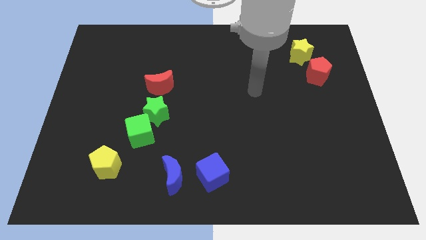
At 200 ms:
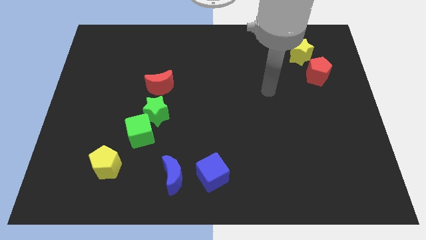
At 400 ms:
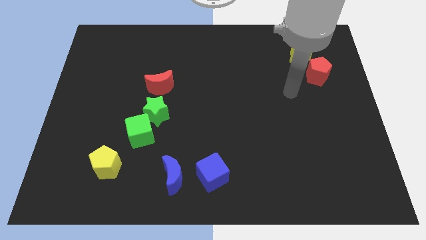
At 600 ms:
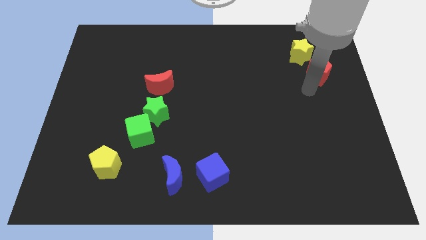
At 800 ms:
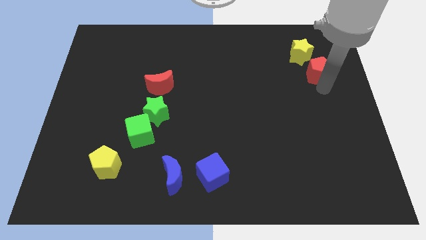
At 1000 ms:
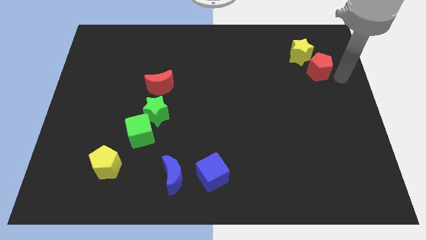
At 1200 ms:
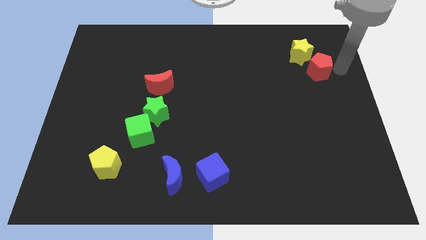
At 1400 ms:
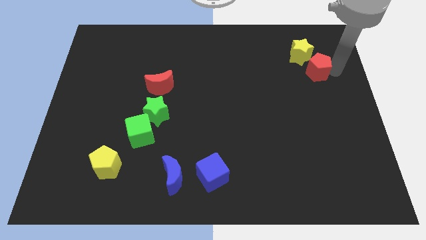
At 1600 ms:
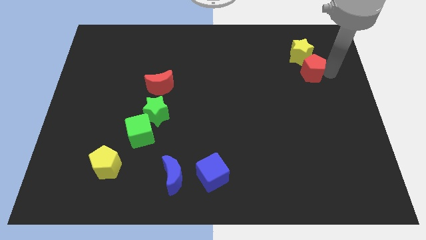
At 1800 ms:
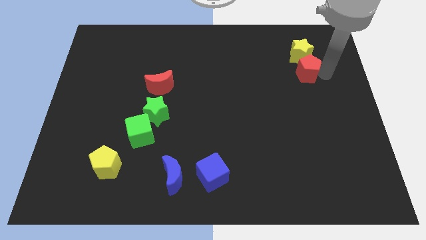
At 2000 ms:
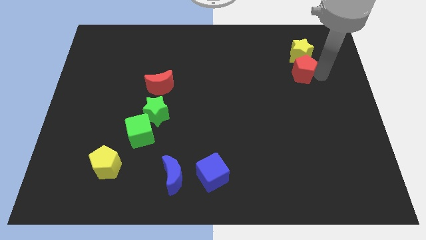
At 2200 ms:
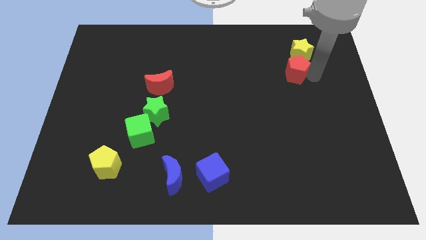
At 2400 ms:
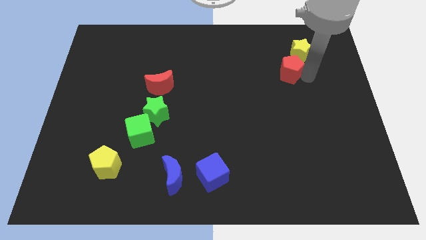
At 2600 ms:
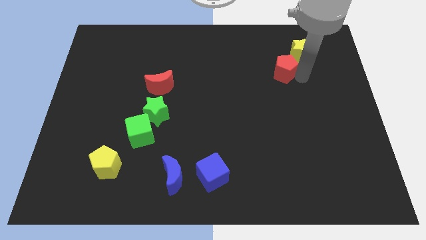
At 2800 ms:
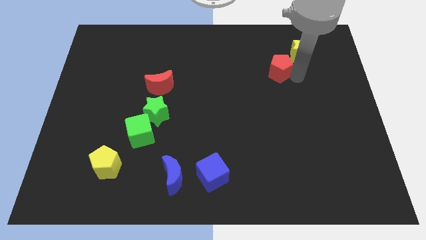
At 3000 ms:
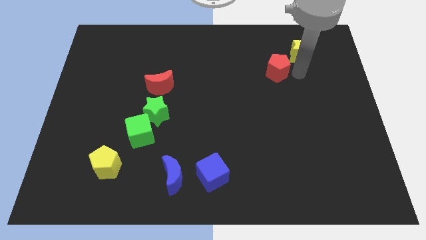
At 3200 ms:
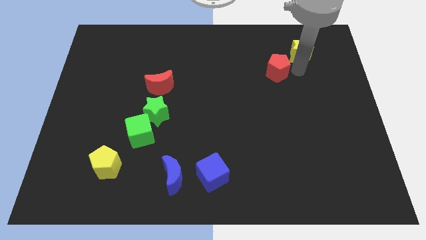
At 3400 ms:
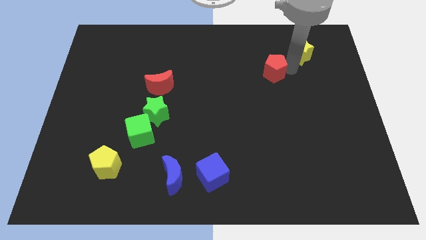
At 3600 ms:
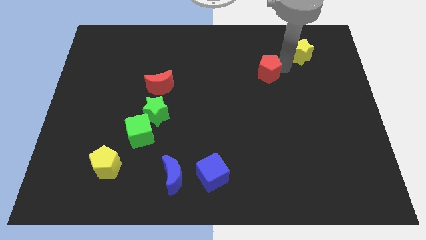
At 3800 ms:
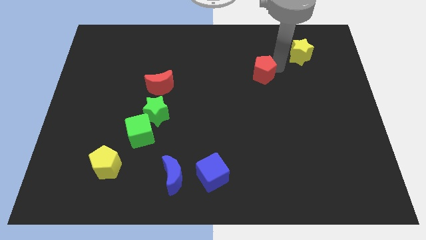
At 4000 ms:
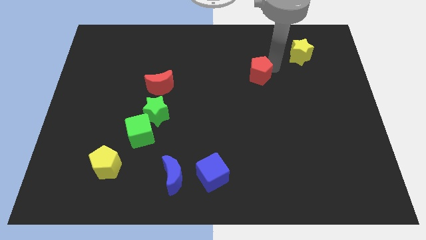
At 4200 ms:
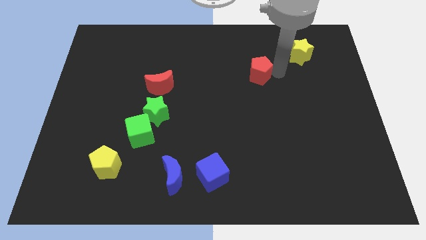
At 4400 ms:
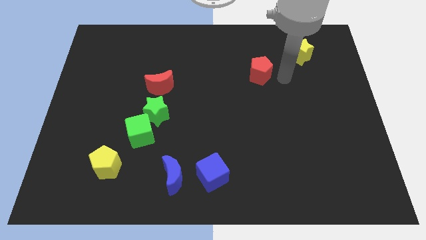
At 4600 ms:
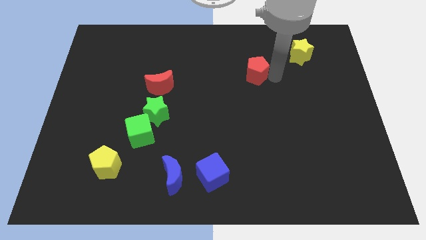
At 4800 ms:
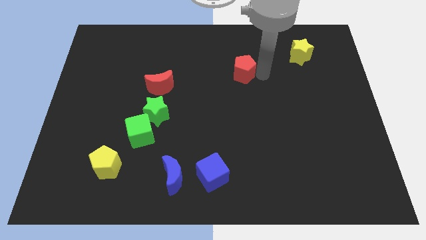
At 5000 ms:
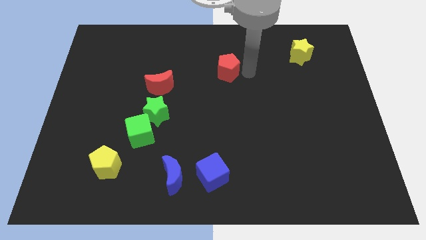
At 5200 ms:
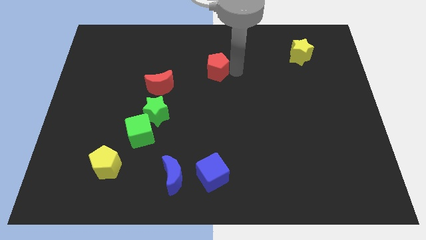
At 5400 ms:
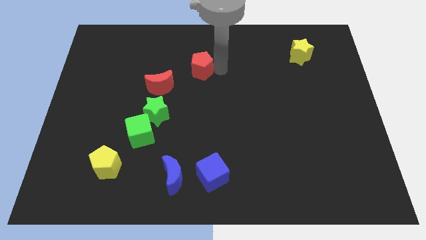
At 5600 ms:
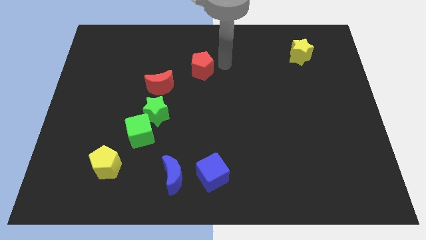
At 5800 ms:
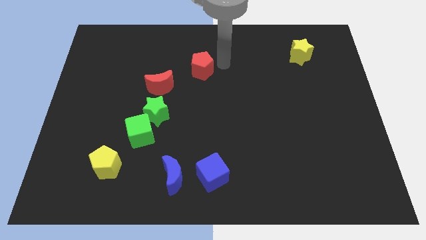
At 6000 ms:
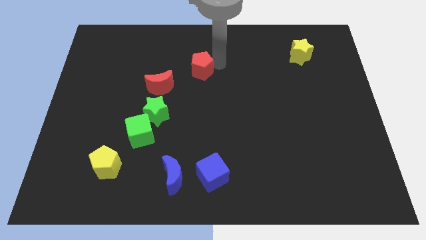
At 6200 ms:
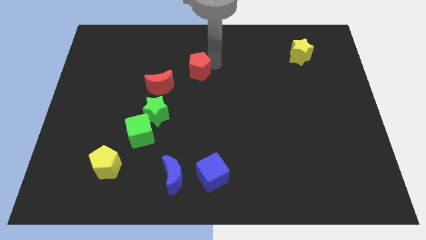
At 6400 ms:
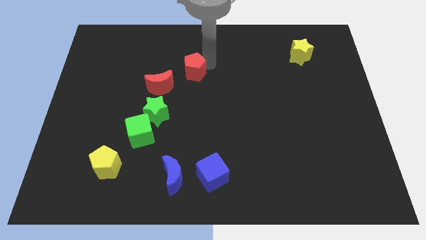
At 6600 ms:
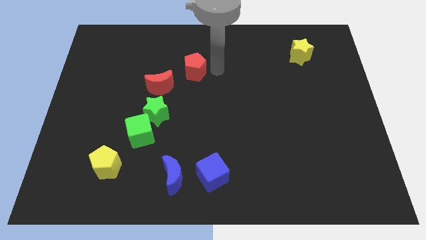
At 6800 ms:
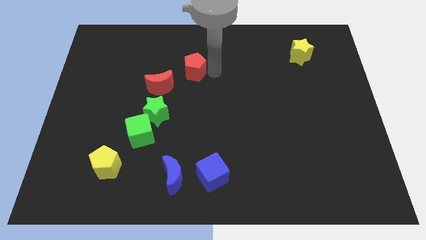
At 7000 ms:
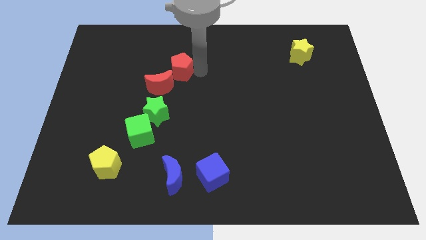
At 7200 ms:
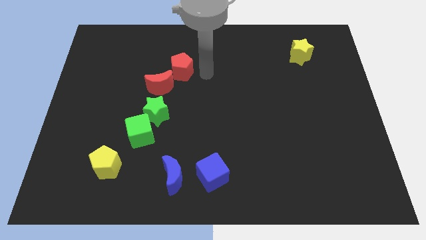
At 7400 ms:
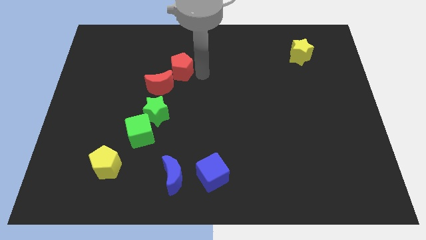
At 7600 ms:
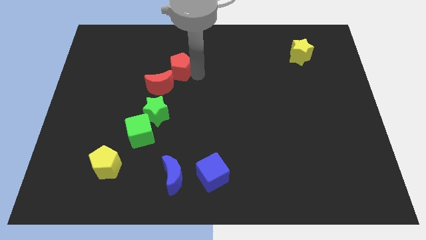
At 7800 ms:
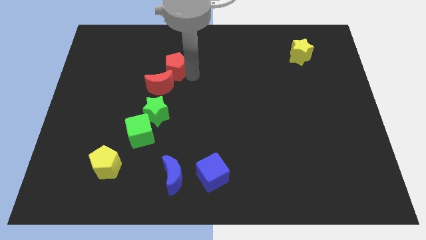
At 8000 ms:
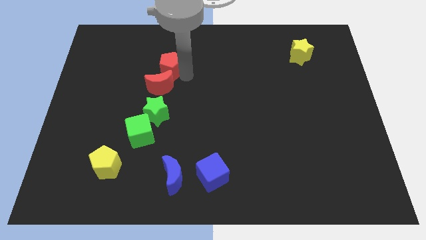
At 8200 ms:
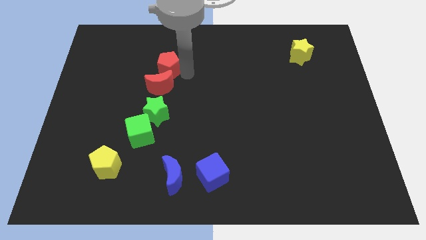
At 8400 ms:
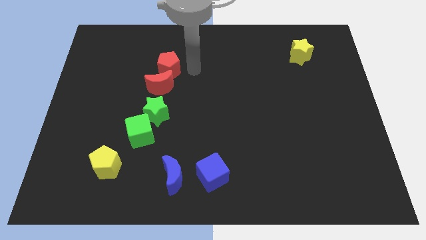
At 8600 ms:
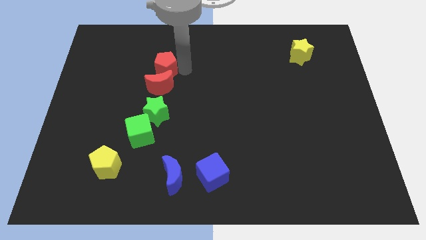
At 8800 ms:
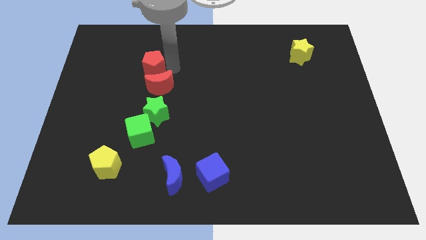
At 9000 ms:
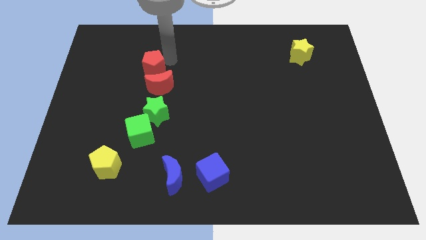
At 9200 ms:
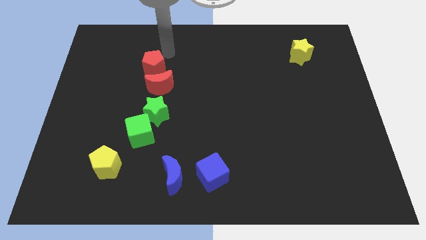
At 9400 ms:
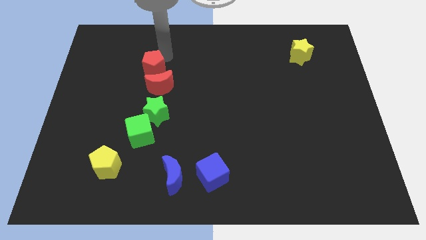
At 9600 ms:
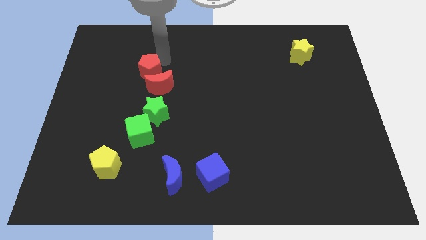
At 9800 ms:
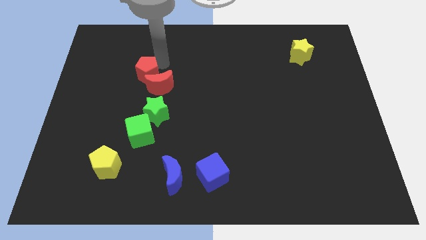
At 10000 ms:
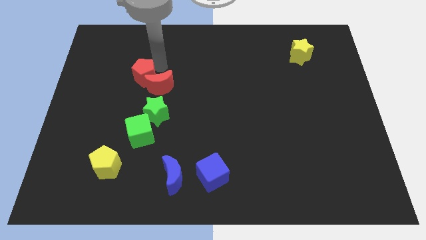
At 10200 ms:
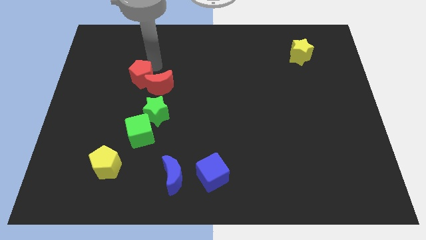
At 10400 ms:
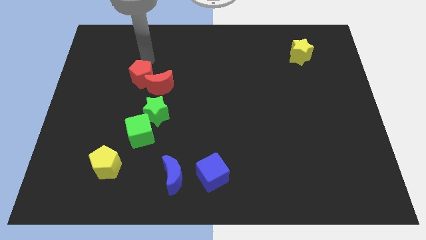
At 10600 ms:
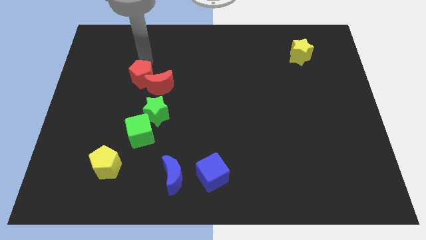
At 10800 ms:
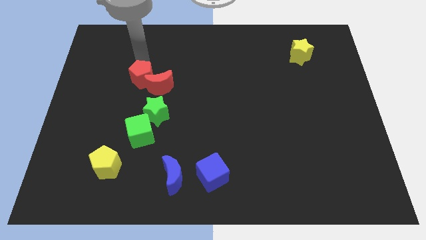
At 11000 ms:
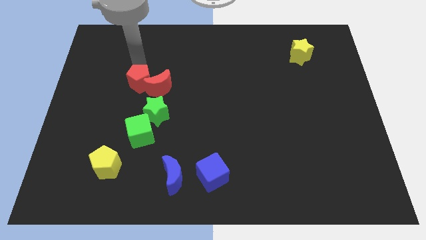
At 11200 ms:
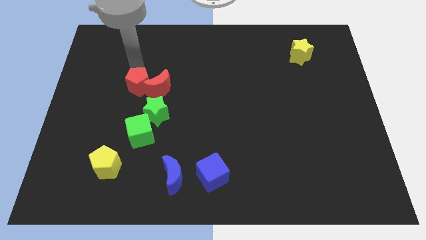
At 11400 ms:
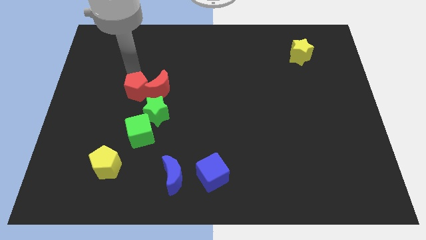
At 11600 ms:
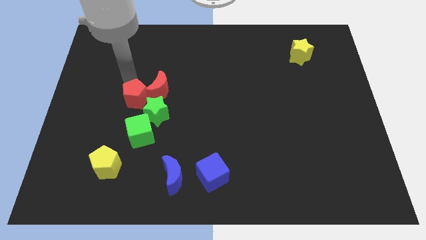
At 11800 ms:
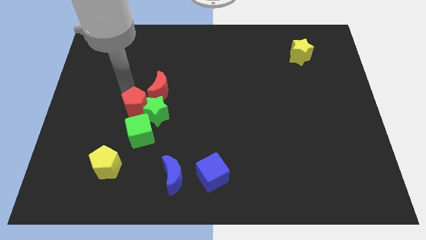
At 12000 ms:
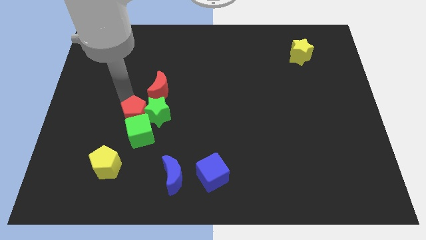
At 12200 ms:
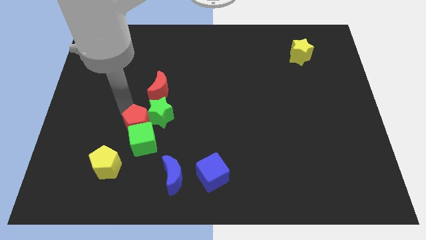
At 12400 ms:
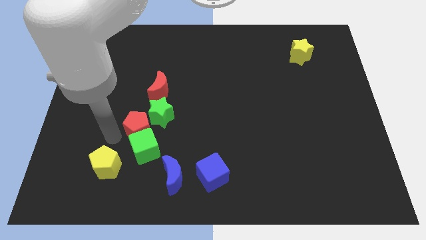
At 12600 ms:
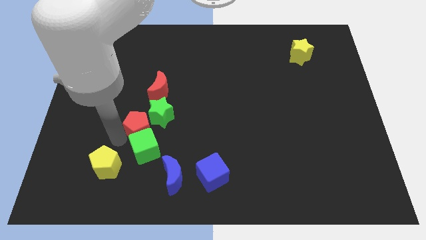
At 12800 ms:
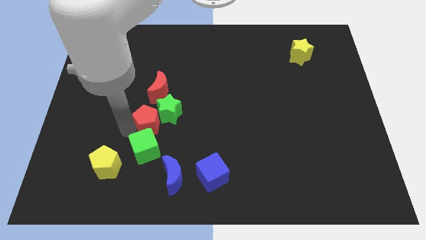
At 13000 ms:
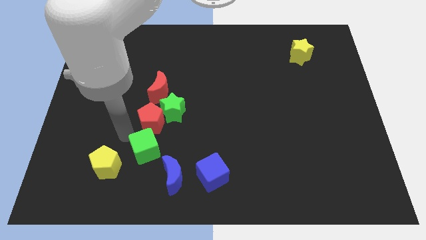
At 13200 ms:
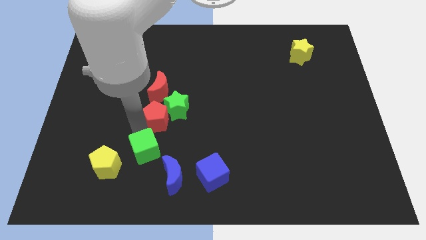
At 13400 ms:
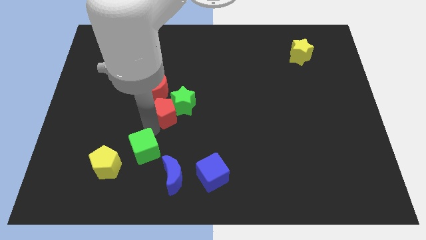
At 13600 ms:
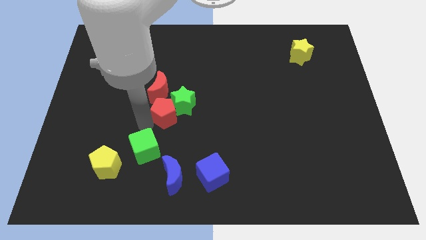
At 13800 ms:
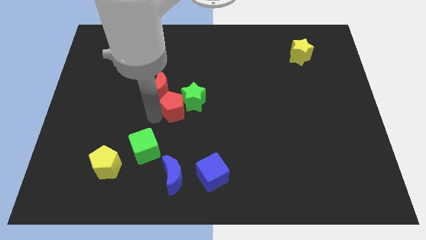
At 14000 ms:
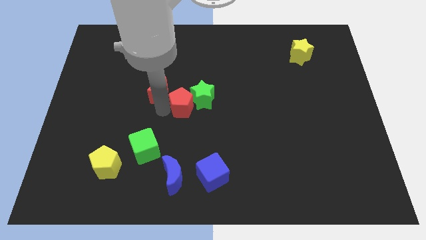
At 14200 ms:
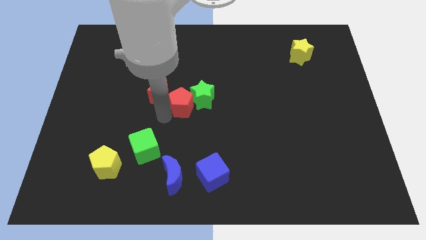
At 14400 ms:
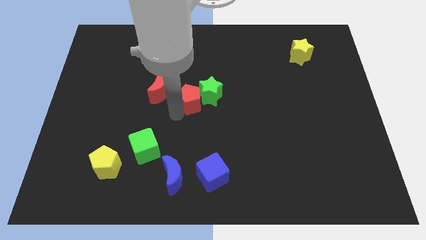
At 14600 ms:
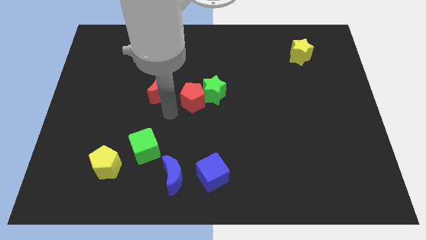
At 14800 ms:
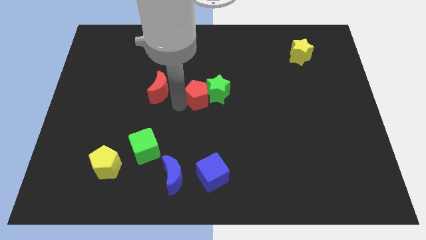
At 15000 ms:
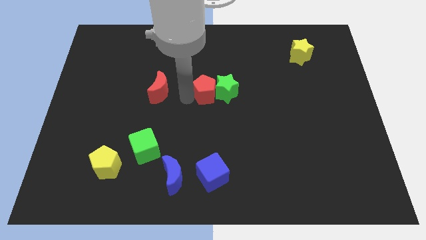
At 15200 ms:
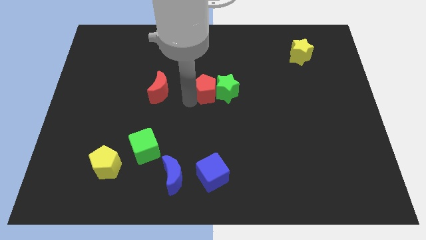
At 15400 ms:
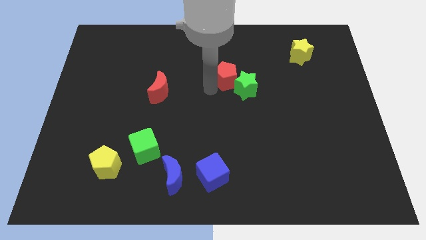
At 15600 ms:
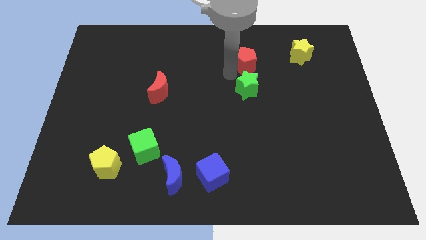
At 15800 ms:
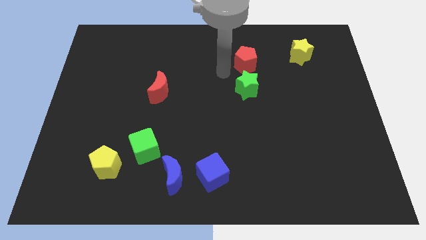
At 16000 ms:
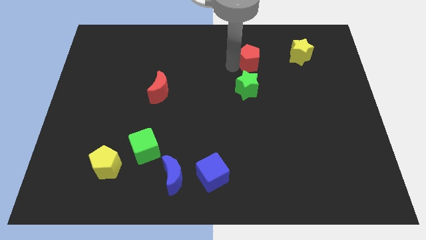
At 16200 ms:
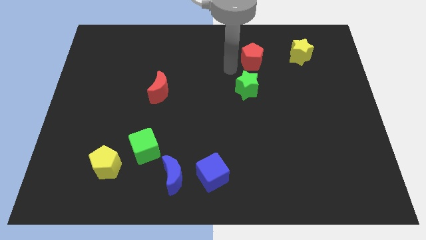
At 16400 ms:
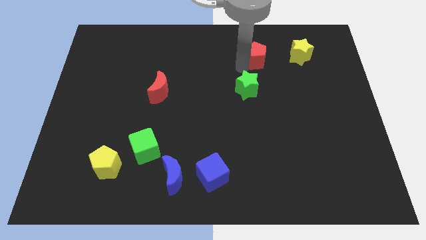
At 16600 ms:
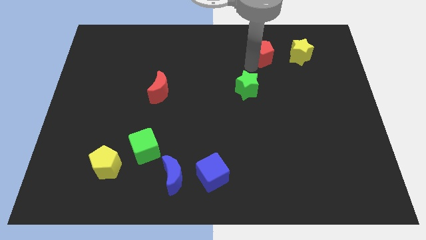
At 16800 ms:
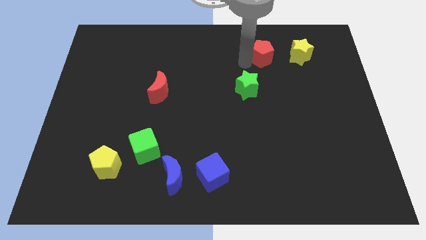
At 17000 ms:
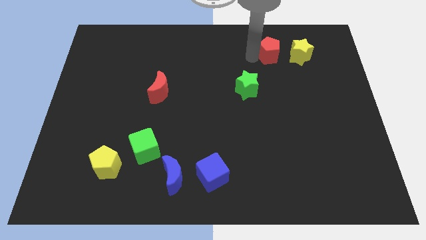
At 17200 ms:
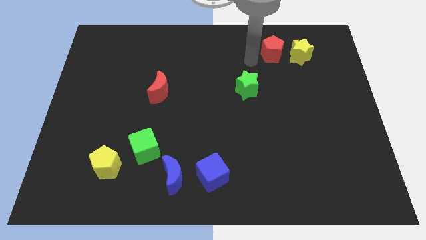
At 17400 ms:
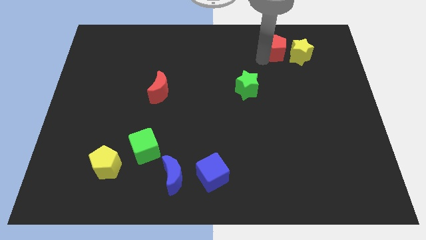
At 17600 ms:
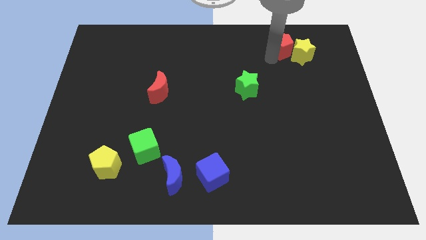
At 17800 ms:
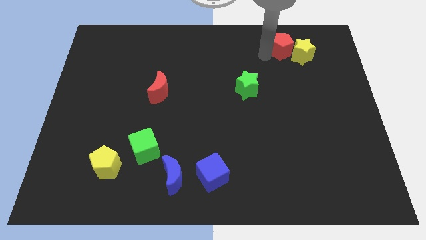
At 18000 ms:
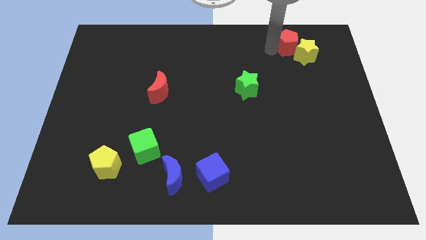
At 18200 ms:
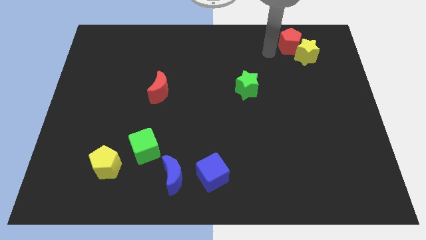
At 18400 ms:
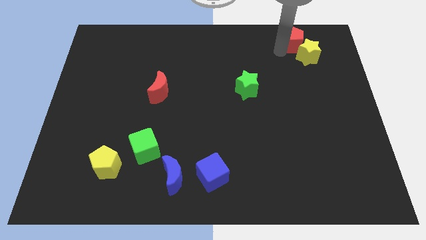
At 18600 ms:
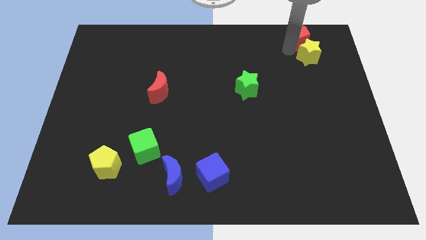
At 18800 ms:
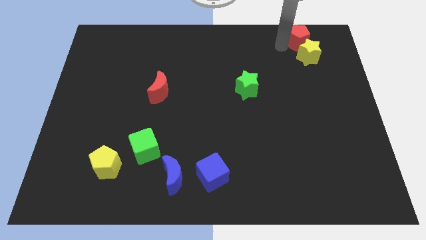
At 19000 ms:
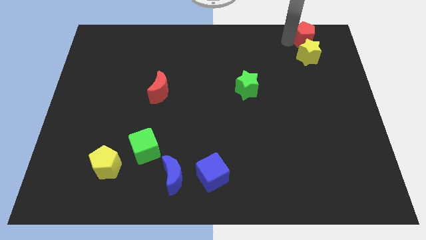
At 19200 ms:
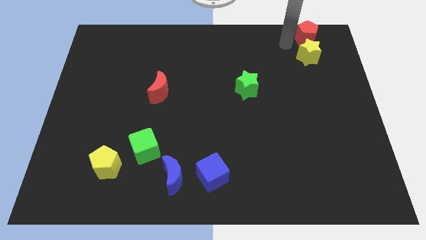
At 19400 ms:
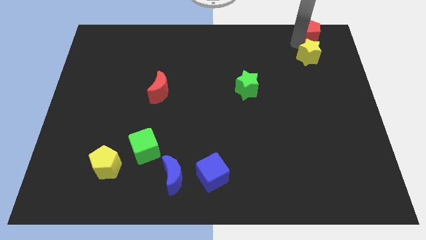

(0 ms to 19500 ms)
move the red pentagon to the top right of the board
